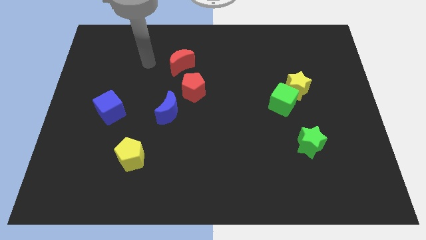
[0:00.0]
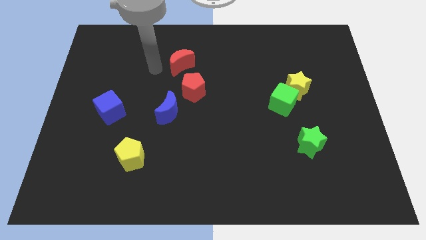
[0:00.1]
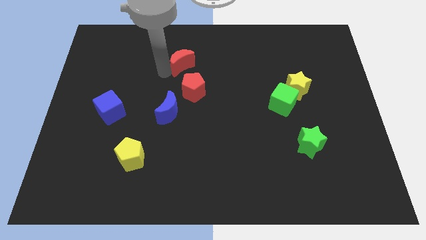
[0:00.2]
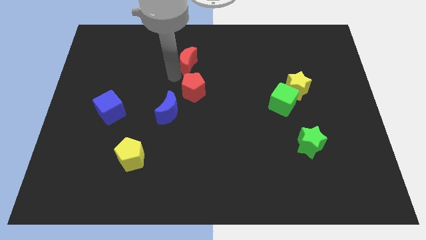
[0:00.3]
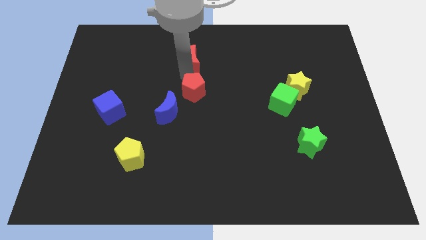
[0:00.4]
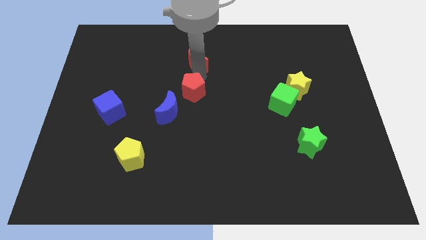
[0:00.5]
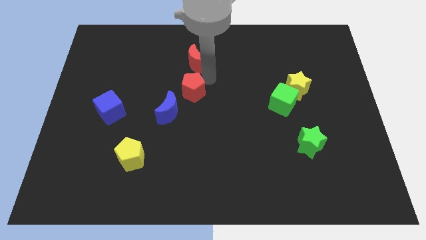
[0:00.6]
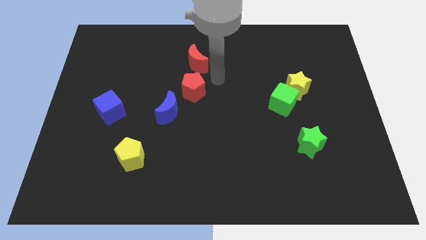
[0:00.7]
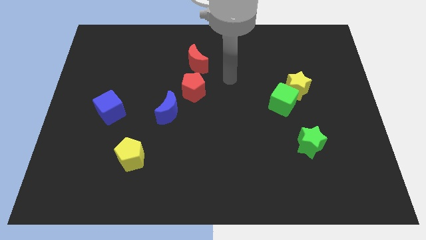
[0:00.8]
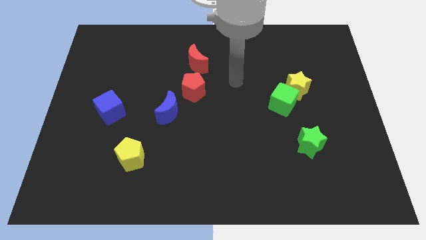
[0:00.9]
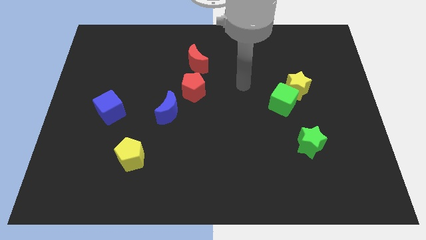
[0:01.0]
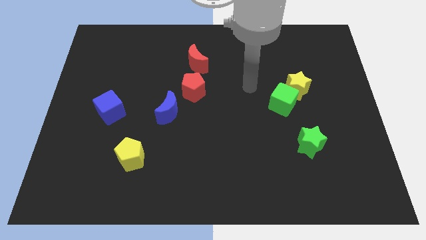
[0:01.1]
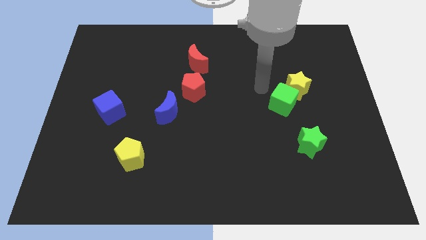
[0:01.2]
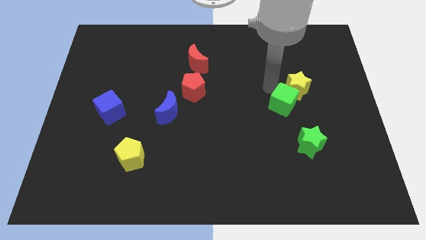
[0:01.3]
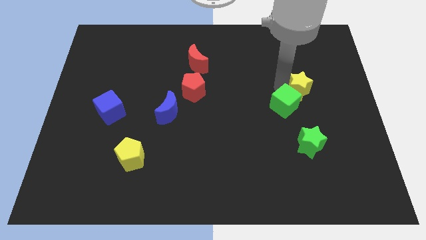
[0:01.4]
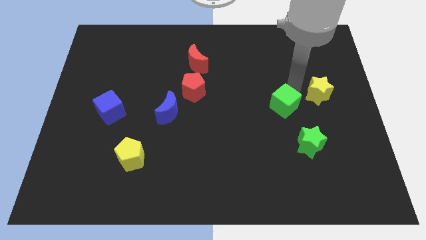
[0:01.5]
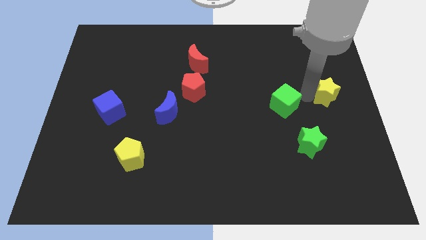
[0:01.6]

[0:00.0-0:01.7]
separate the green cube from the yellow star

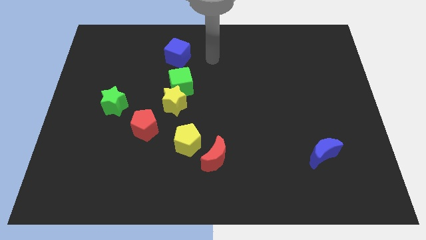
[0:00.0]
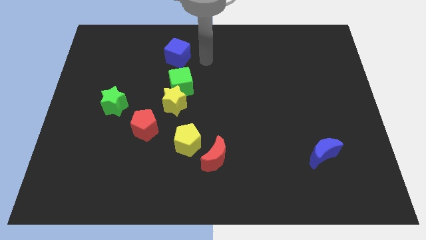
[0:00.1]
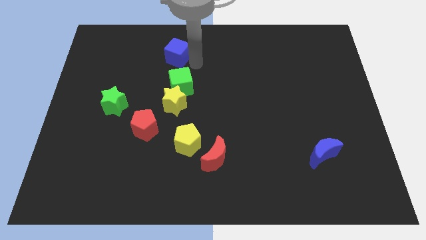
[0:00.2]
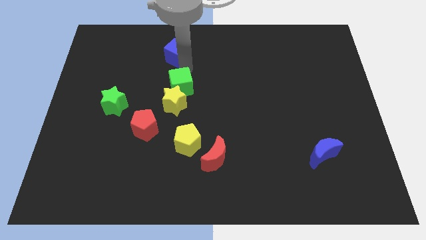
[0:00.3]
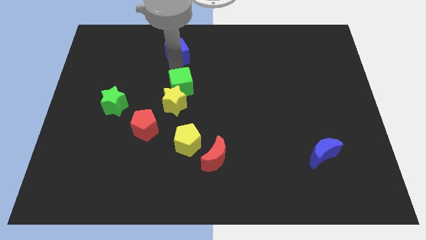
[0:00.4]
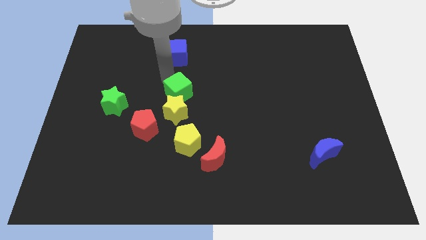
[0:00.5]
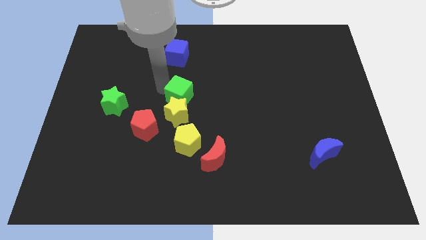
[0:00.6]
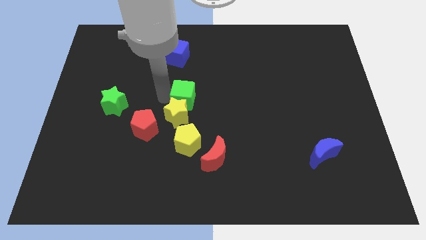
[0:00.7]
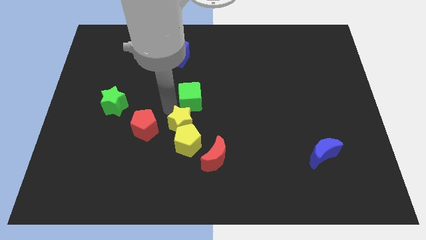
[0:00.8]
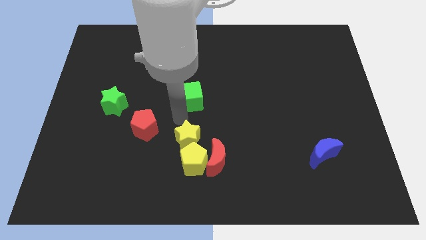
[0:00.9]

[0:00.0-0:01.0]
pull the green cube apart from the yellow star

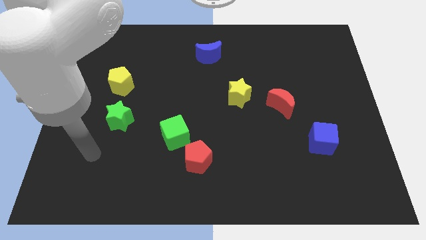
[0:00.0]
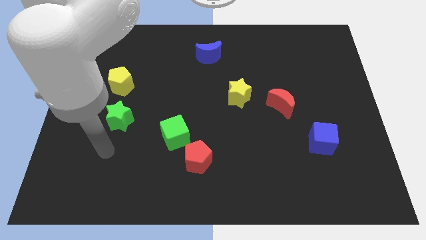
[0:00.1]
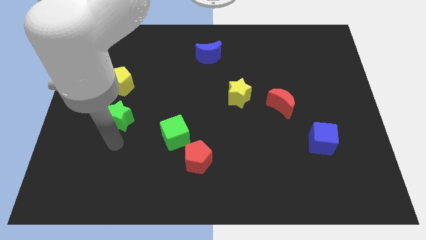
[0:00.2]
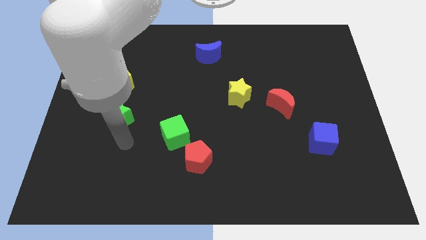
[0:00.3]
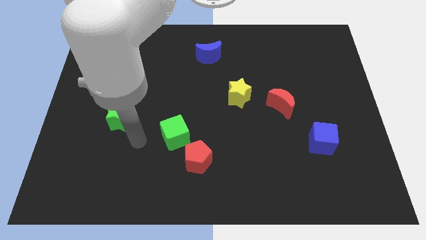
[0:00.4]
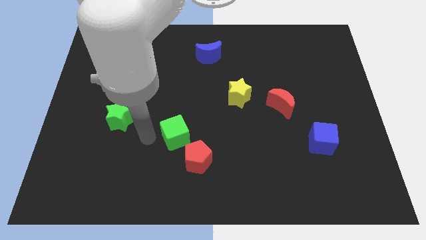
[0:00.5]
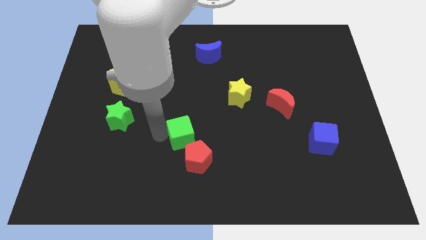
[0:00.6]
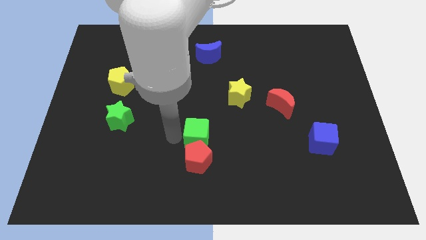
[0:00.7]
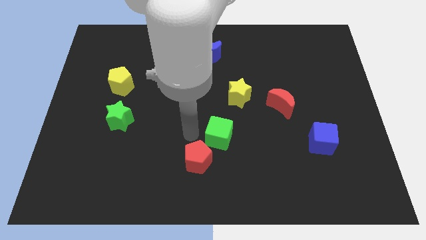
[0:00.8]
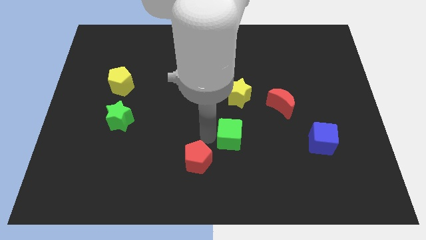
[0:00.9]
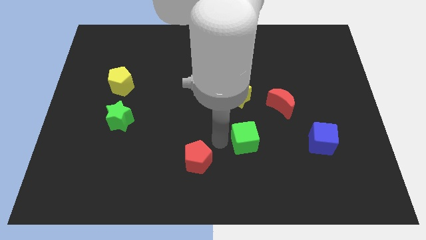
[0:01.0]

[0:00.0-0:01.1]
pull the red pentagon apart from the green cube

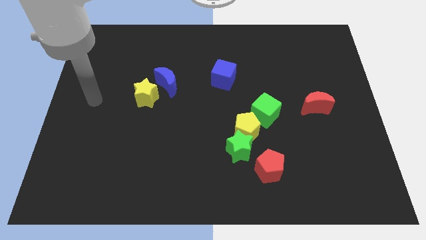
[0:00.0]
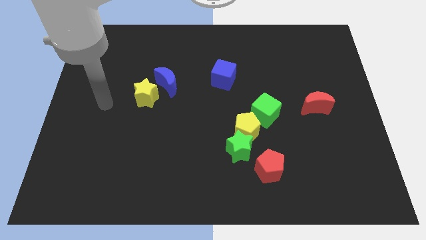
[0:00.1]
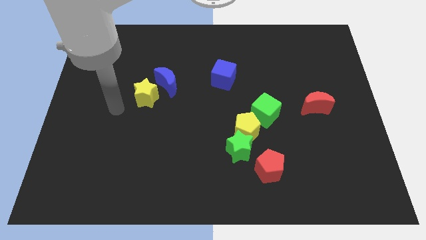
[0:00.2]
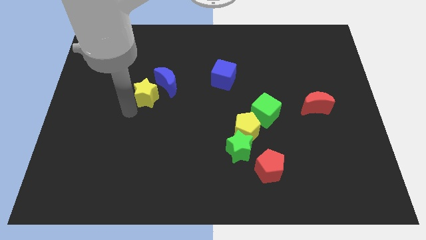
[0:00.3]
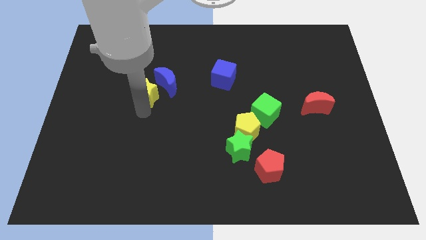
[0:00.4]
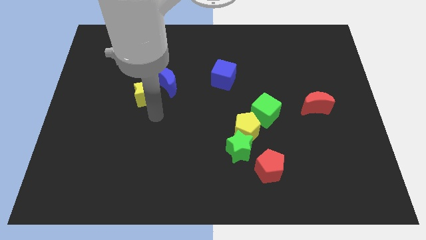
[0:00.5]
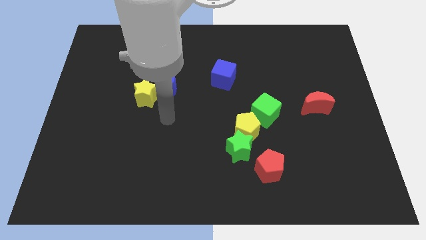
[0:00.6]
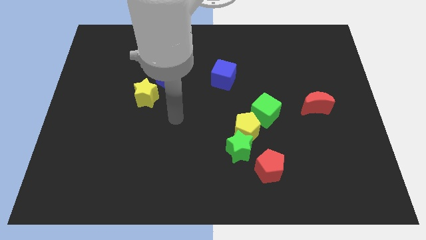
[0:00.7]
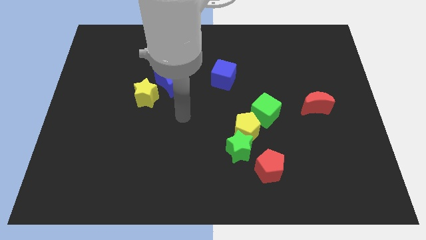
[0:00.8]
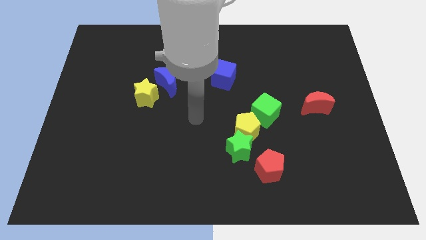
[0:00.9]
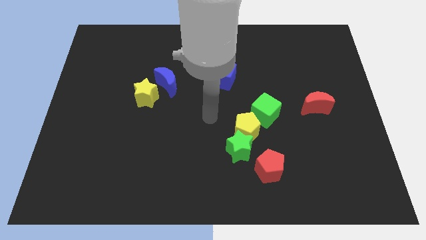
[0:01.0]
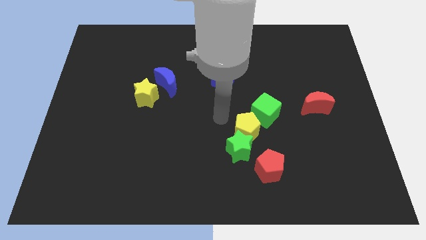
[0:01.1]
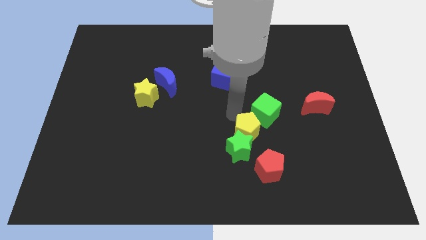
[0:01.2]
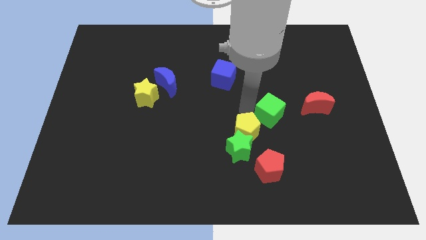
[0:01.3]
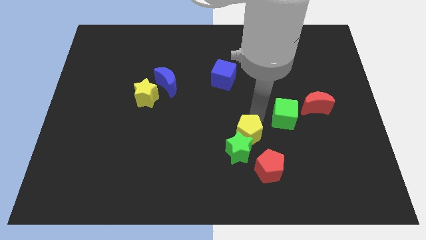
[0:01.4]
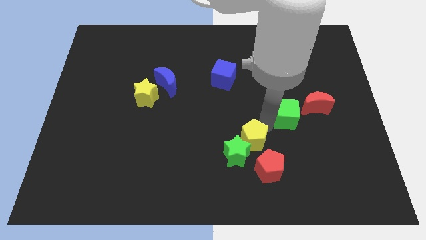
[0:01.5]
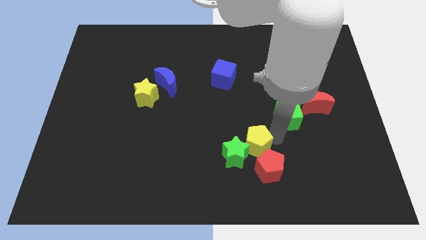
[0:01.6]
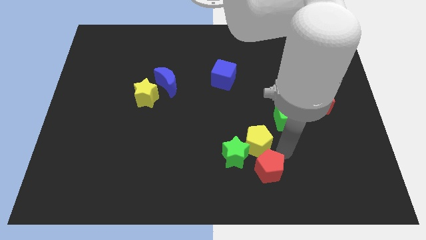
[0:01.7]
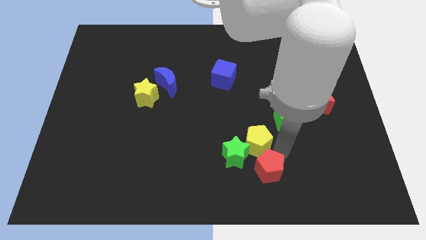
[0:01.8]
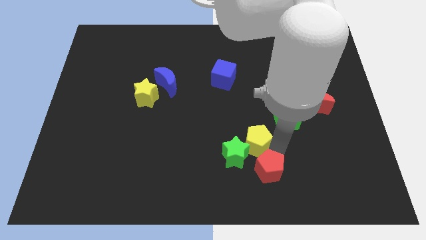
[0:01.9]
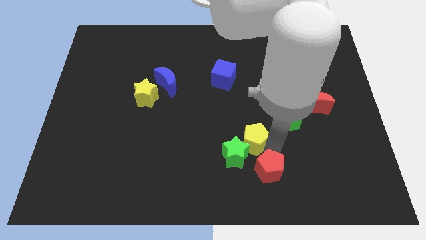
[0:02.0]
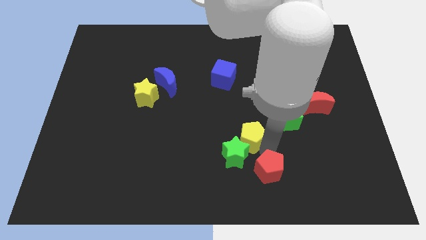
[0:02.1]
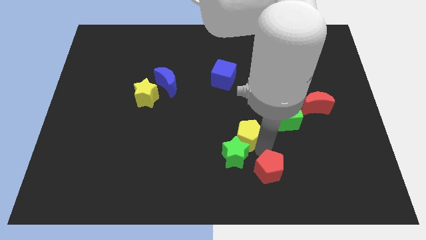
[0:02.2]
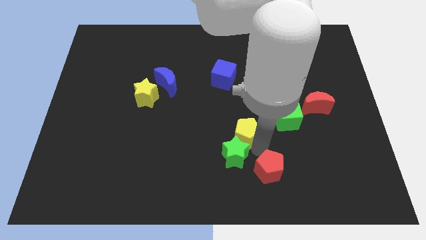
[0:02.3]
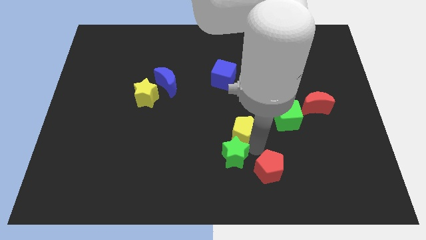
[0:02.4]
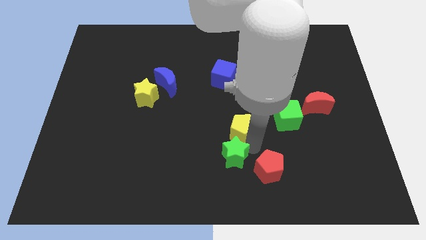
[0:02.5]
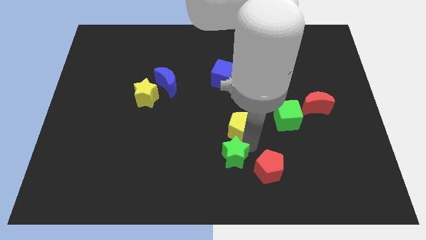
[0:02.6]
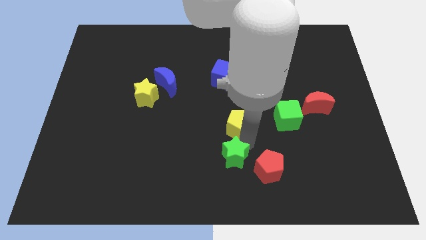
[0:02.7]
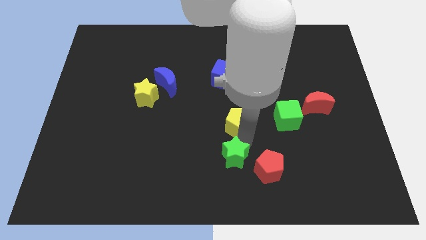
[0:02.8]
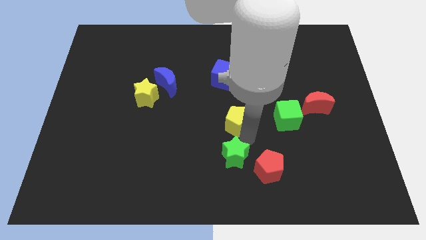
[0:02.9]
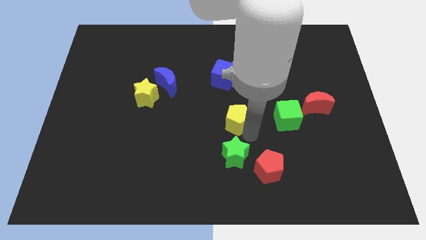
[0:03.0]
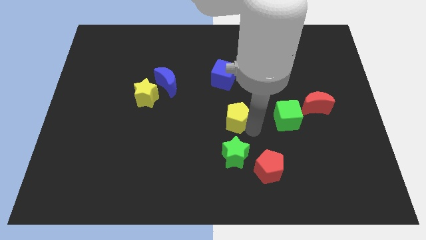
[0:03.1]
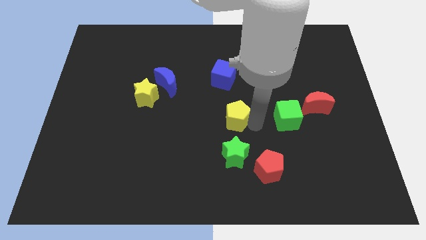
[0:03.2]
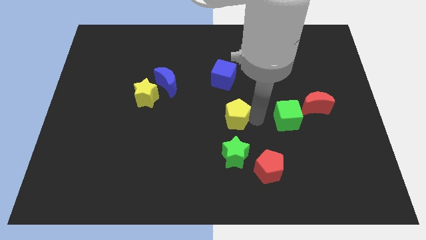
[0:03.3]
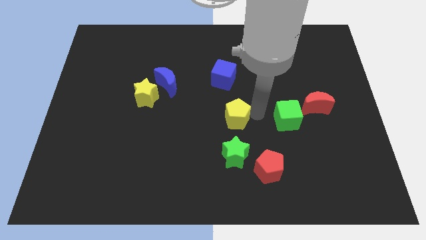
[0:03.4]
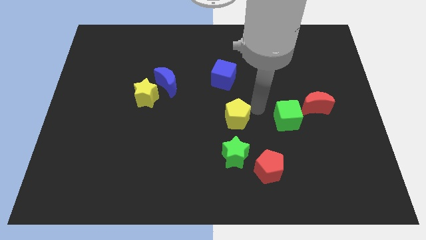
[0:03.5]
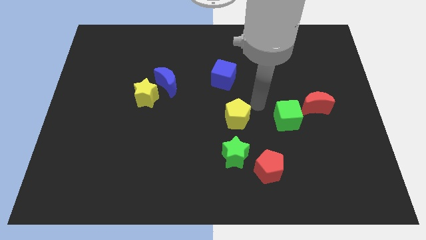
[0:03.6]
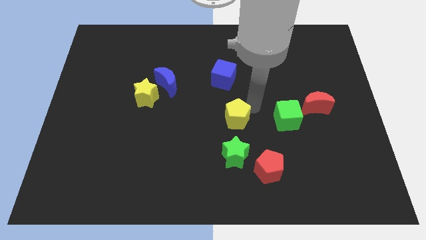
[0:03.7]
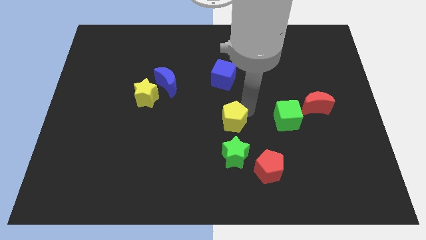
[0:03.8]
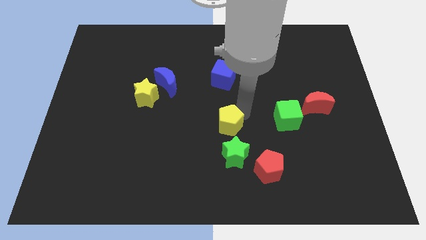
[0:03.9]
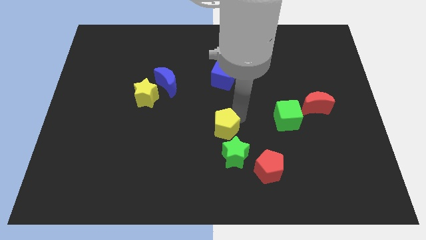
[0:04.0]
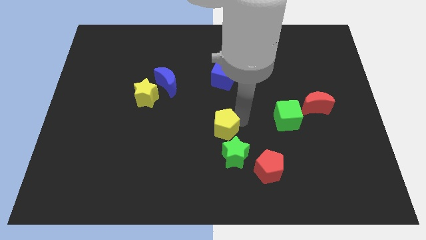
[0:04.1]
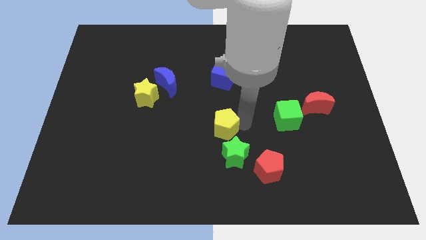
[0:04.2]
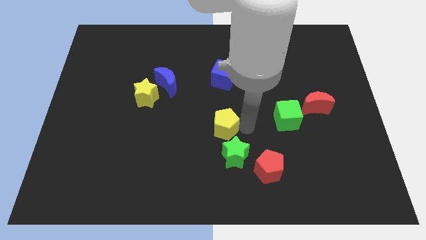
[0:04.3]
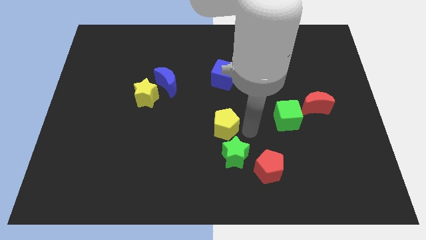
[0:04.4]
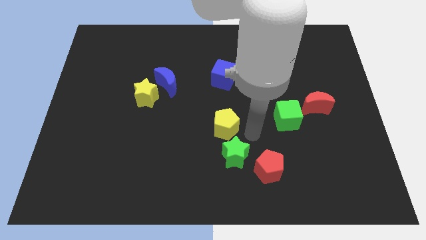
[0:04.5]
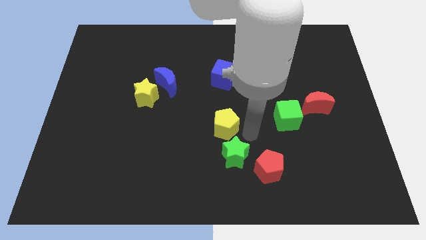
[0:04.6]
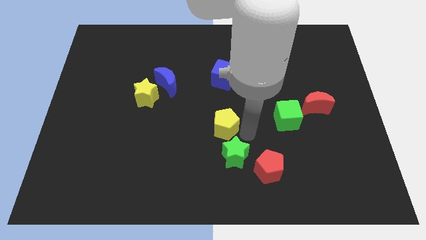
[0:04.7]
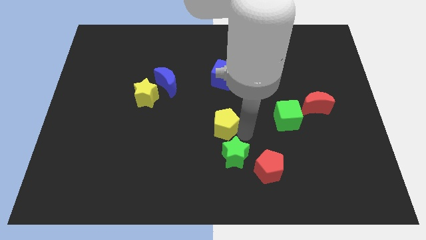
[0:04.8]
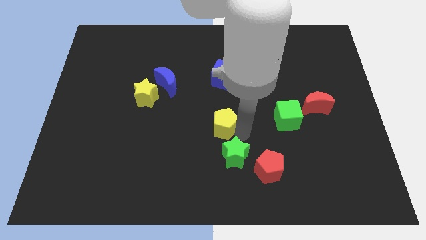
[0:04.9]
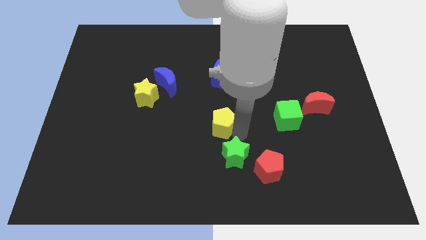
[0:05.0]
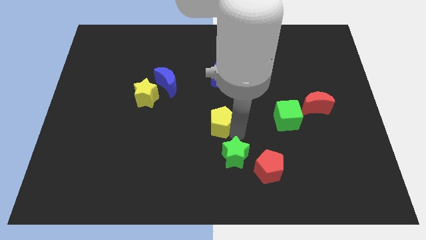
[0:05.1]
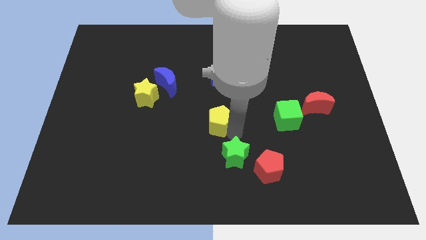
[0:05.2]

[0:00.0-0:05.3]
separate the yellow pentagon from the green star and green cube

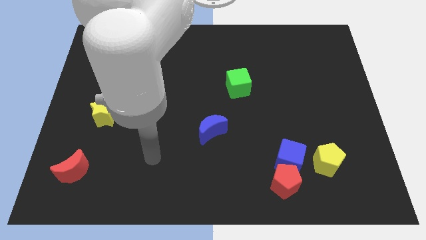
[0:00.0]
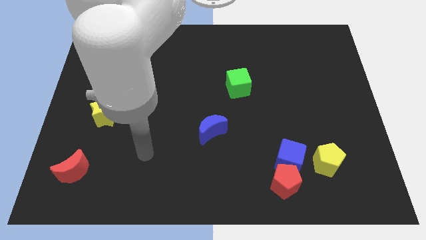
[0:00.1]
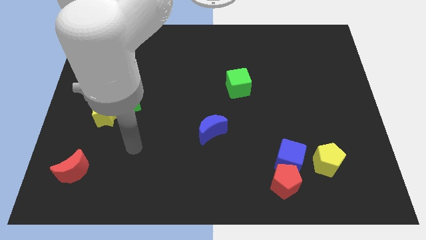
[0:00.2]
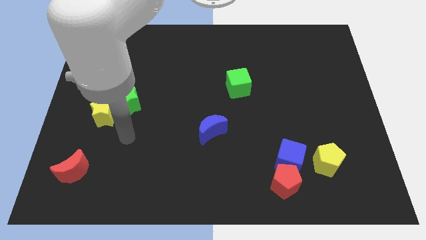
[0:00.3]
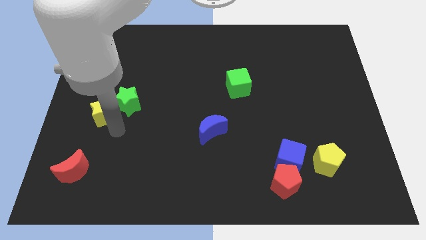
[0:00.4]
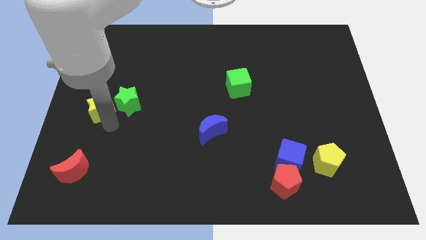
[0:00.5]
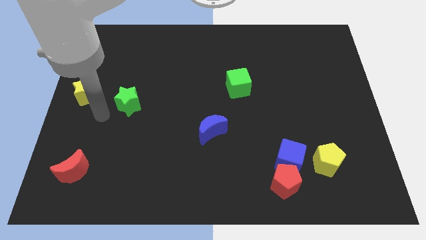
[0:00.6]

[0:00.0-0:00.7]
pull the green star apart from the yellow star
